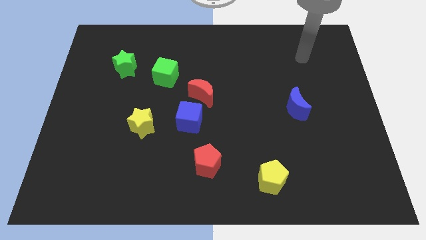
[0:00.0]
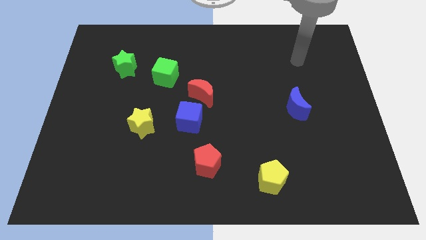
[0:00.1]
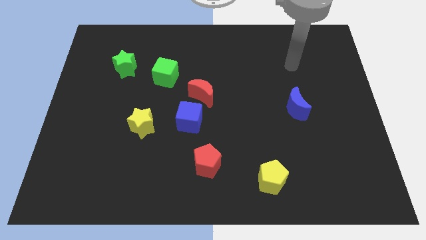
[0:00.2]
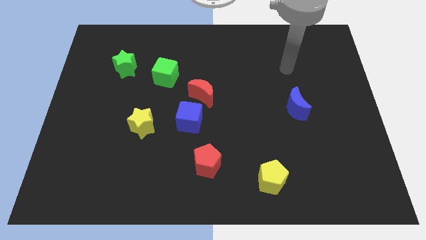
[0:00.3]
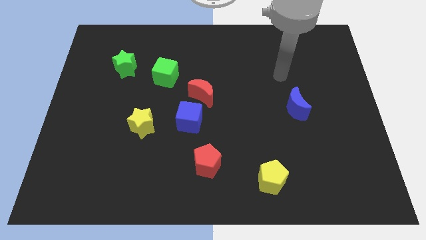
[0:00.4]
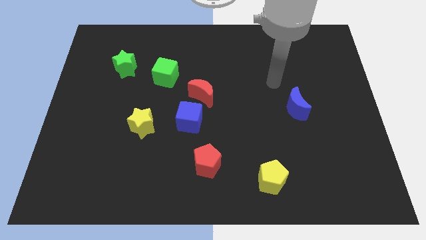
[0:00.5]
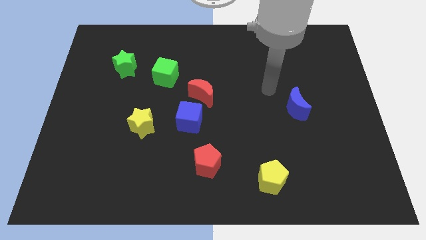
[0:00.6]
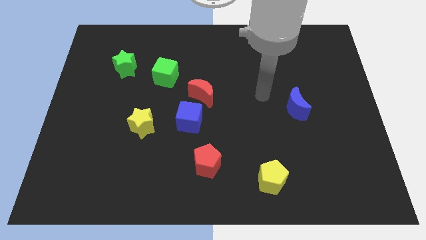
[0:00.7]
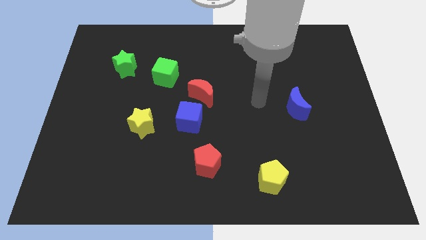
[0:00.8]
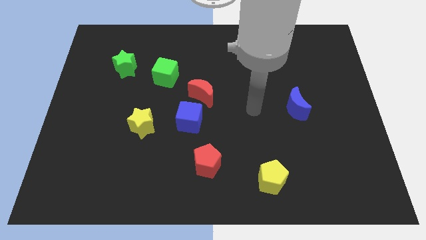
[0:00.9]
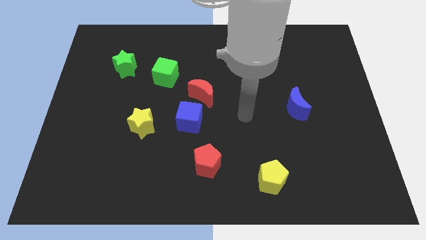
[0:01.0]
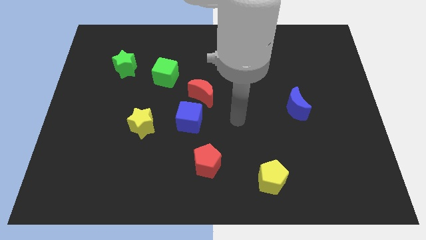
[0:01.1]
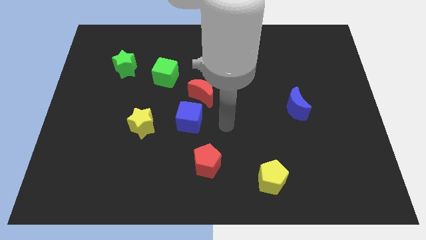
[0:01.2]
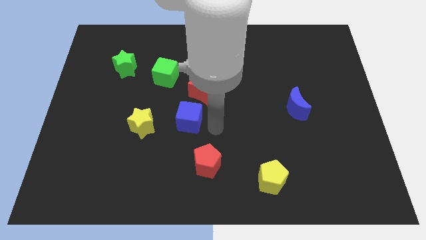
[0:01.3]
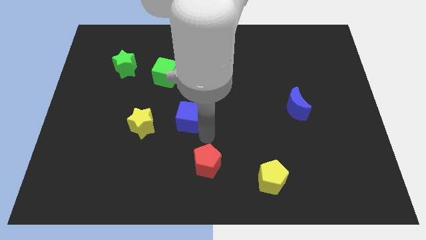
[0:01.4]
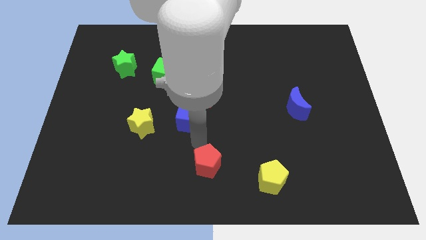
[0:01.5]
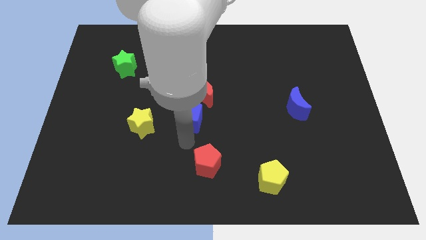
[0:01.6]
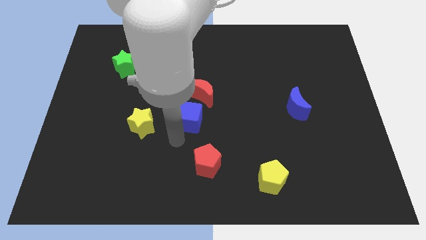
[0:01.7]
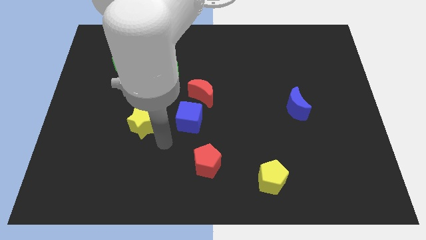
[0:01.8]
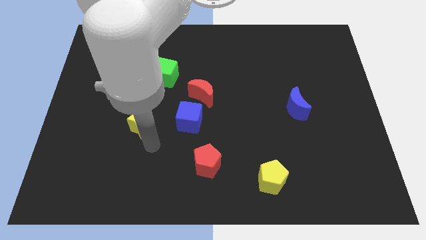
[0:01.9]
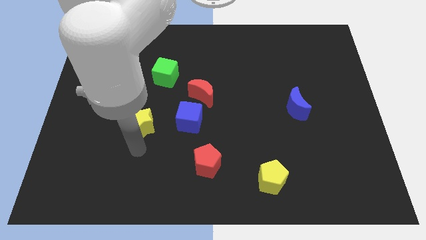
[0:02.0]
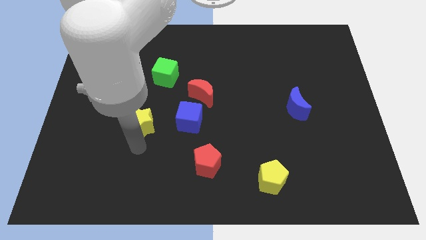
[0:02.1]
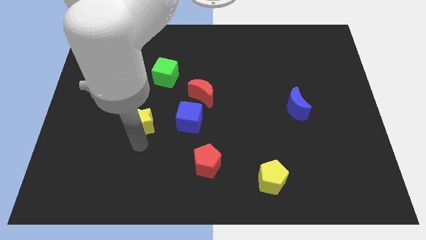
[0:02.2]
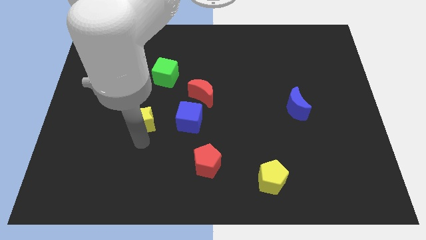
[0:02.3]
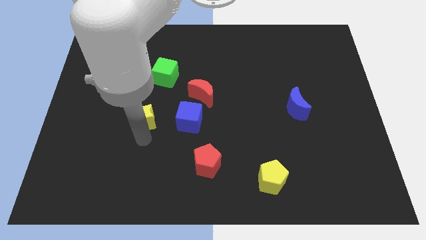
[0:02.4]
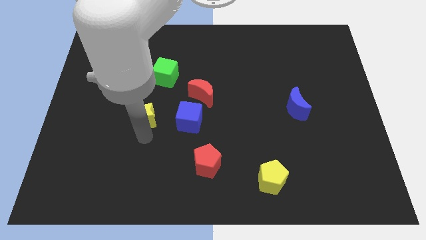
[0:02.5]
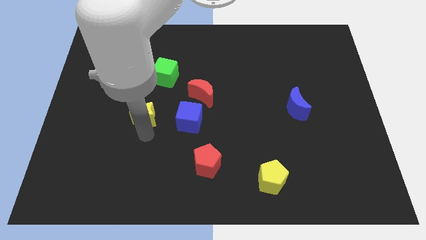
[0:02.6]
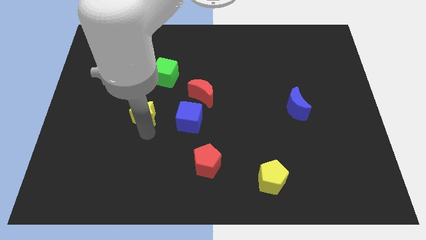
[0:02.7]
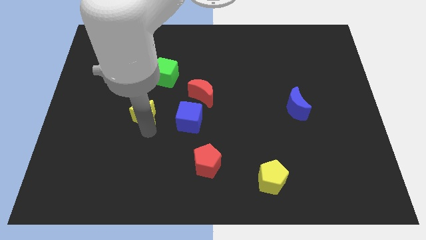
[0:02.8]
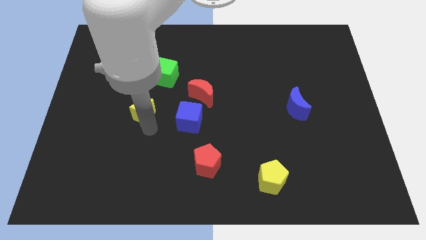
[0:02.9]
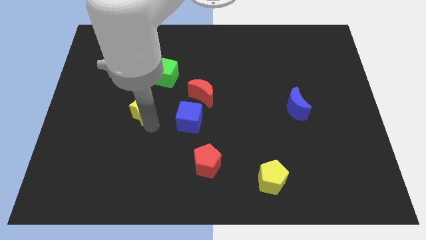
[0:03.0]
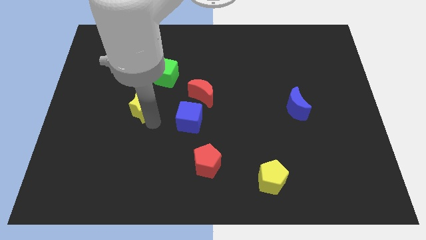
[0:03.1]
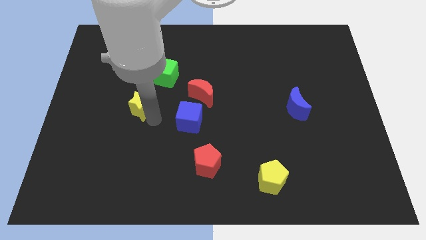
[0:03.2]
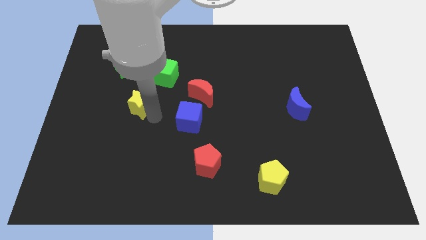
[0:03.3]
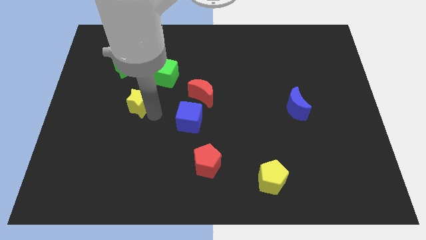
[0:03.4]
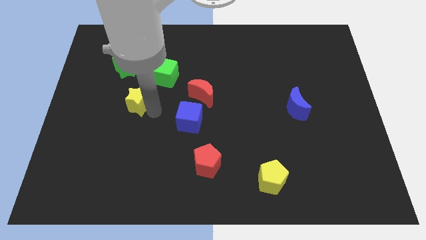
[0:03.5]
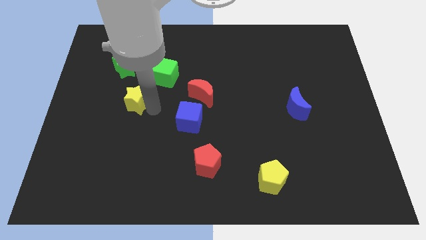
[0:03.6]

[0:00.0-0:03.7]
move the yellow star upwards a bit

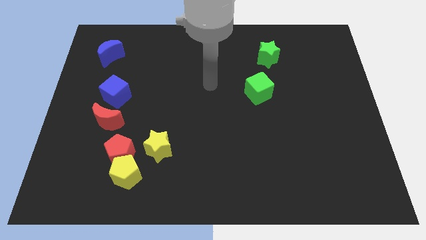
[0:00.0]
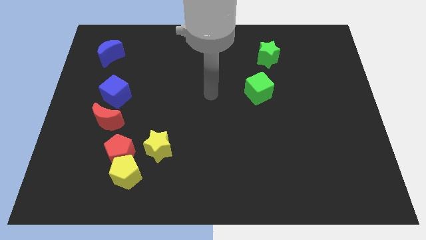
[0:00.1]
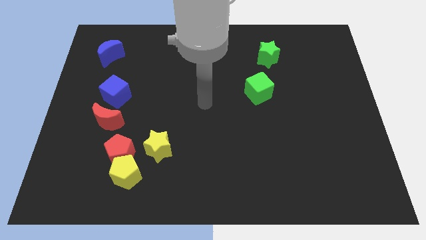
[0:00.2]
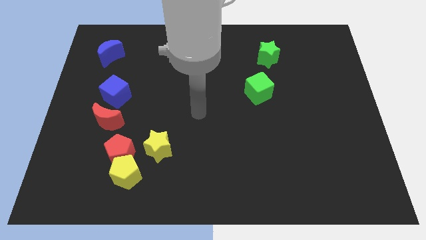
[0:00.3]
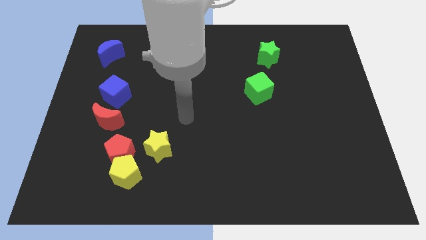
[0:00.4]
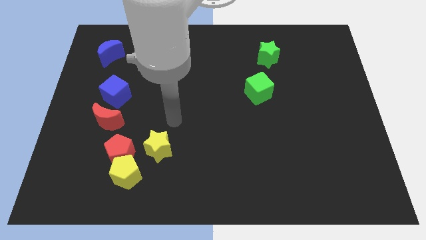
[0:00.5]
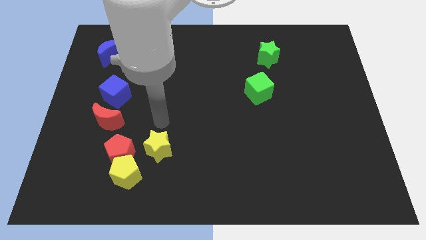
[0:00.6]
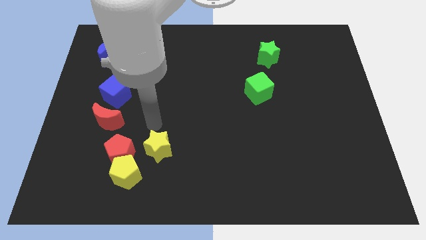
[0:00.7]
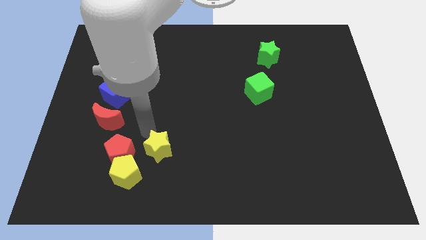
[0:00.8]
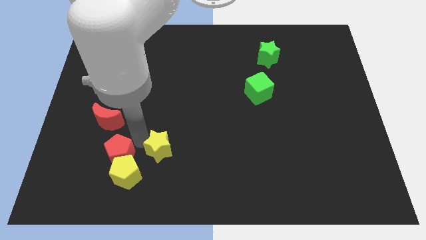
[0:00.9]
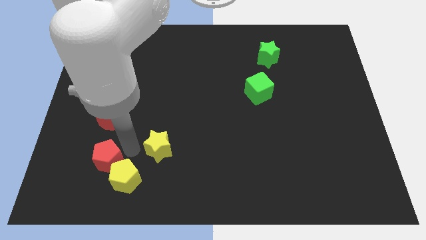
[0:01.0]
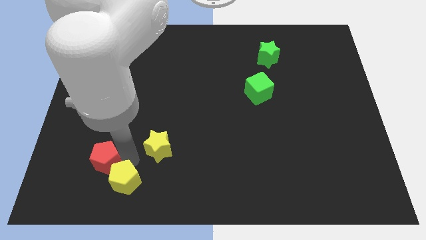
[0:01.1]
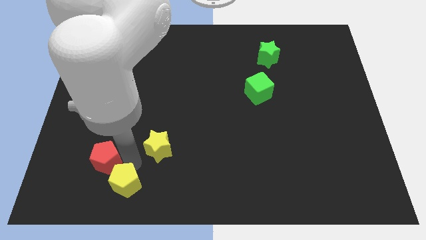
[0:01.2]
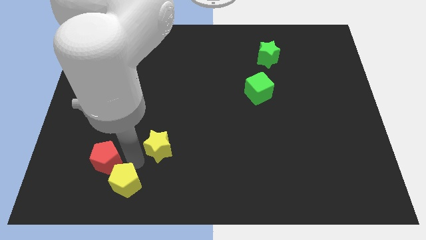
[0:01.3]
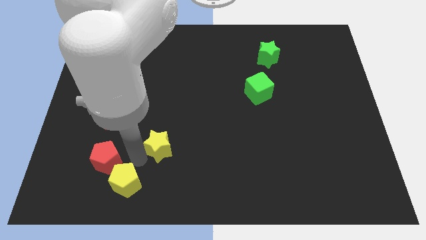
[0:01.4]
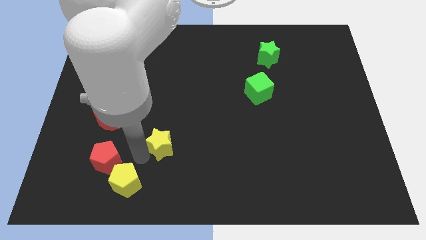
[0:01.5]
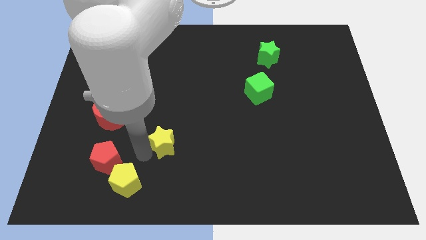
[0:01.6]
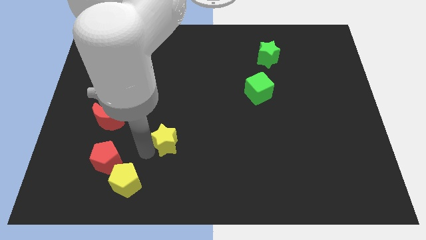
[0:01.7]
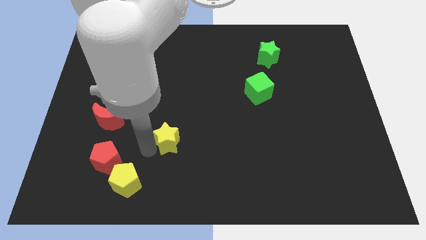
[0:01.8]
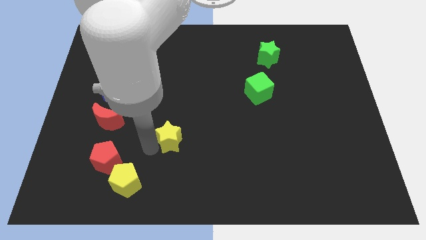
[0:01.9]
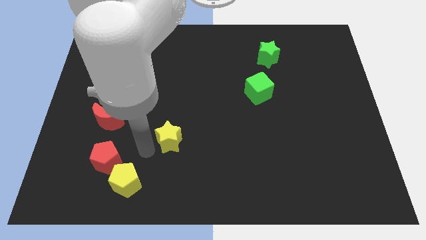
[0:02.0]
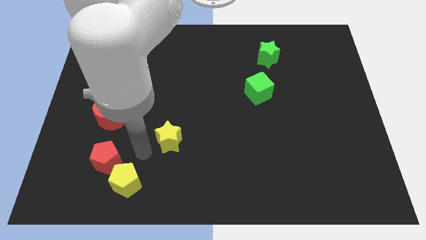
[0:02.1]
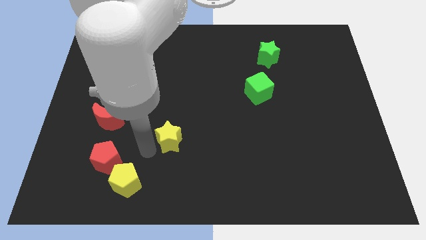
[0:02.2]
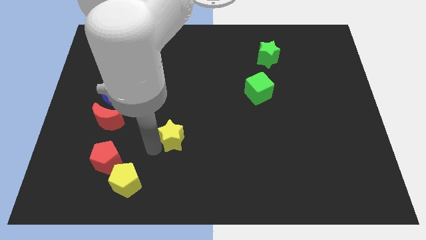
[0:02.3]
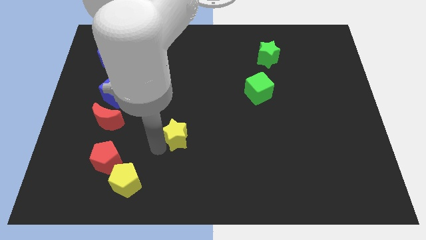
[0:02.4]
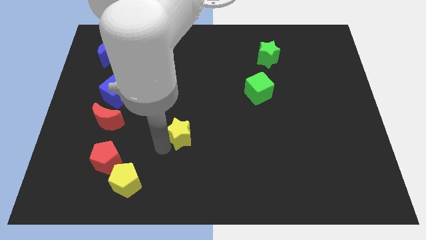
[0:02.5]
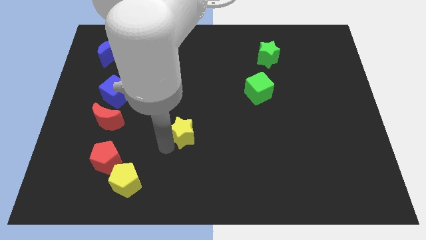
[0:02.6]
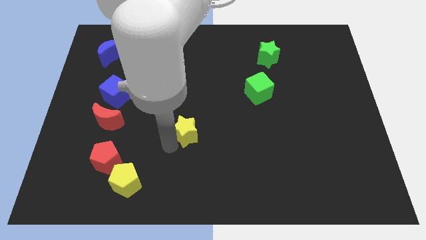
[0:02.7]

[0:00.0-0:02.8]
slightly push the yellow star diagonally upwards and right

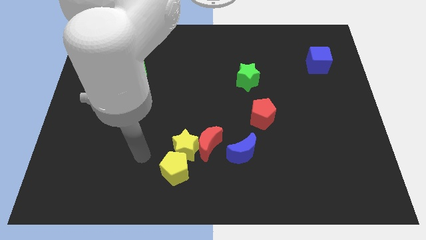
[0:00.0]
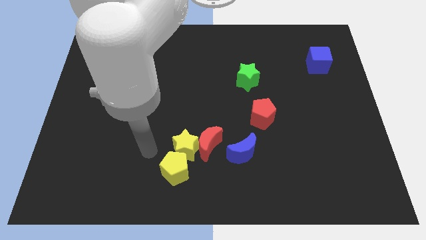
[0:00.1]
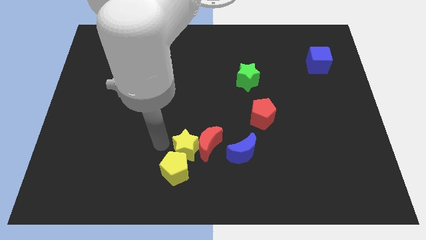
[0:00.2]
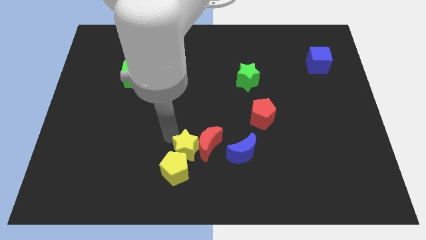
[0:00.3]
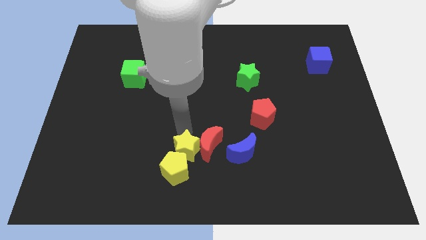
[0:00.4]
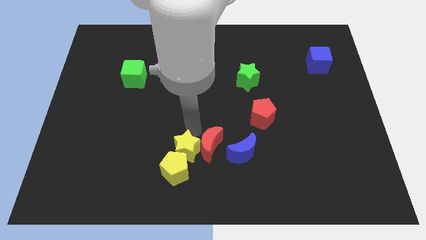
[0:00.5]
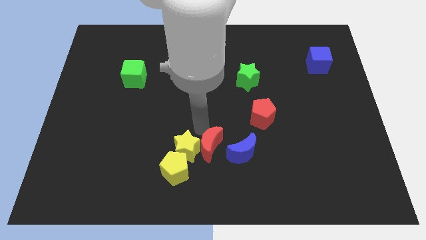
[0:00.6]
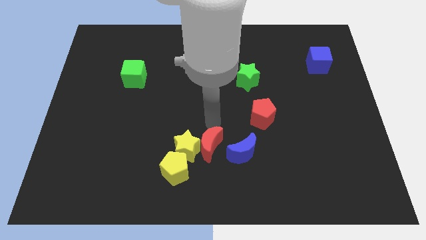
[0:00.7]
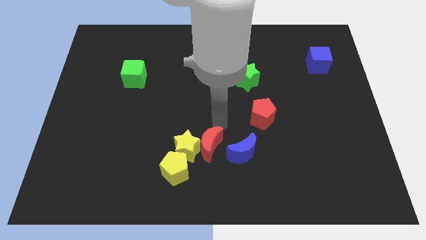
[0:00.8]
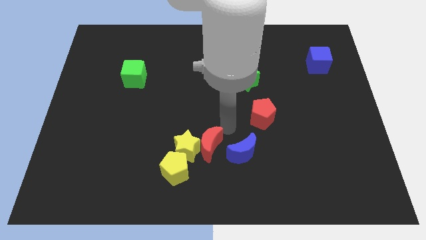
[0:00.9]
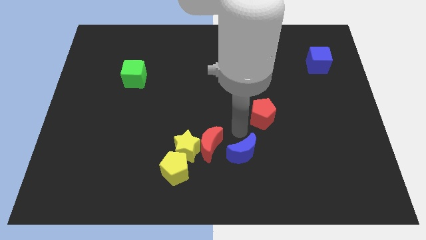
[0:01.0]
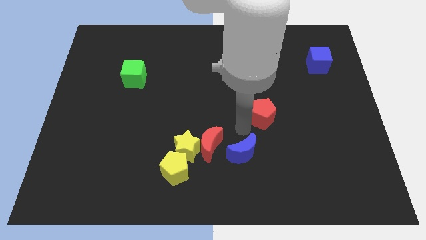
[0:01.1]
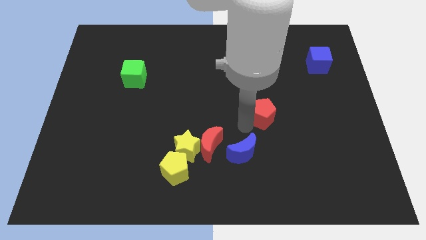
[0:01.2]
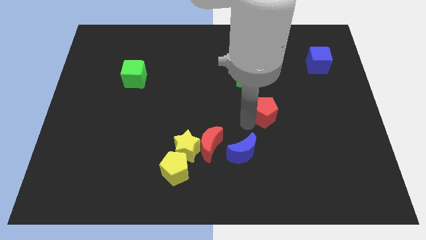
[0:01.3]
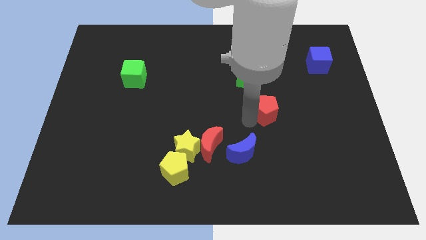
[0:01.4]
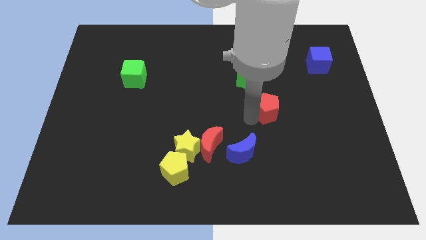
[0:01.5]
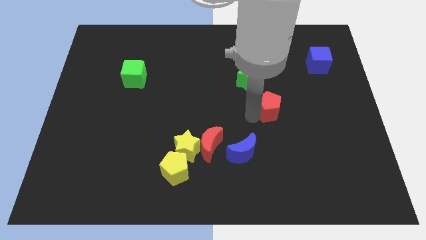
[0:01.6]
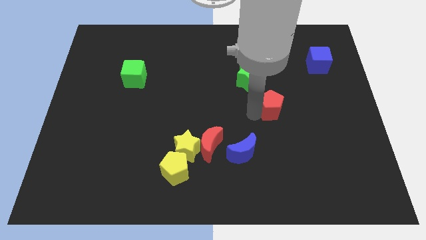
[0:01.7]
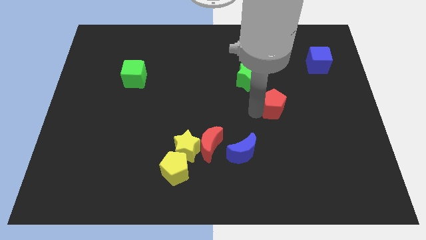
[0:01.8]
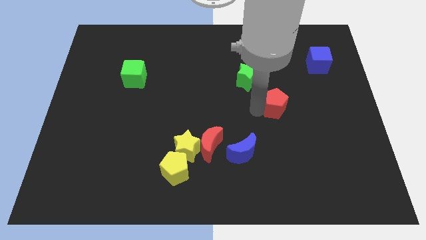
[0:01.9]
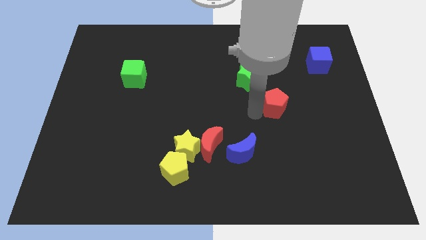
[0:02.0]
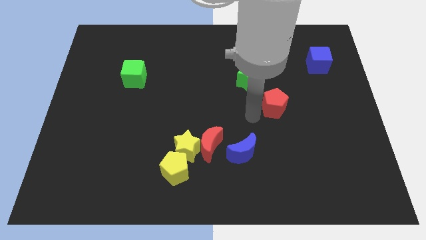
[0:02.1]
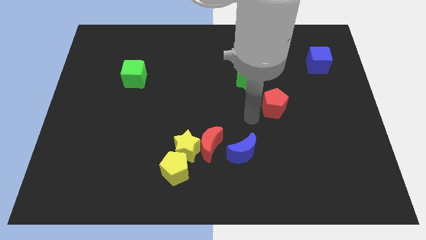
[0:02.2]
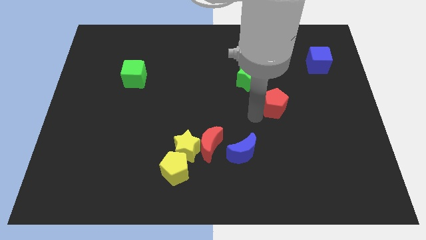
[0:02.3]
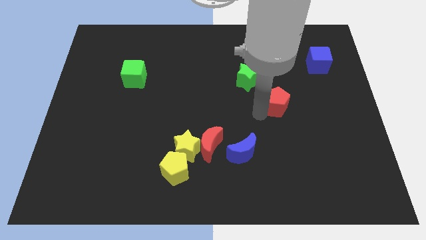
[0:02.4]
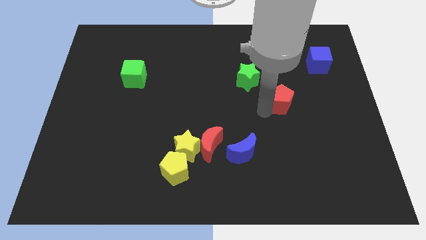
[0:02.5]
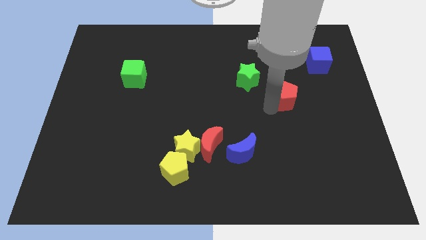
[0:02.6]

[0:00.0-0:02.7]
slide the red pentagon upwards and right a little bit
